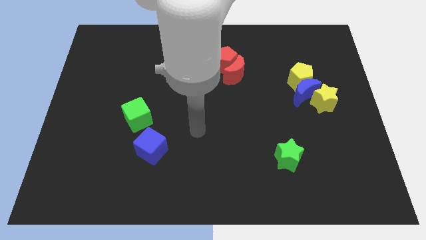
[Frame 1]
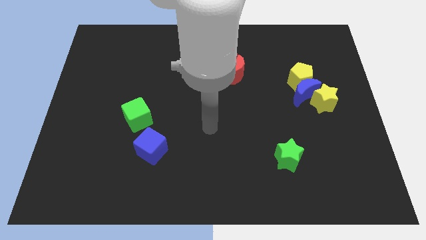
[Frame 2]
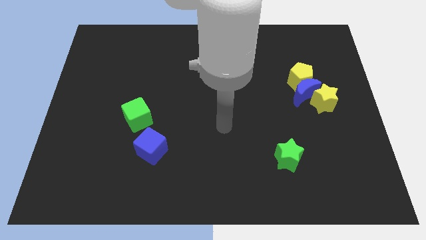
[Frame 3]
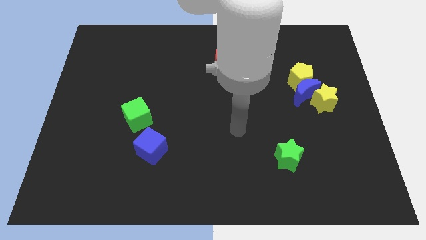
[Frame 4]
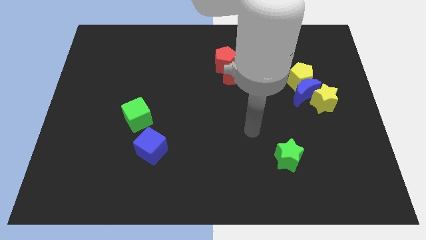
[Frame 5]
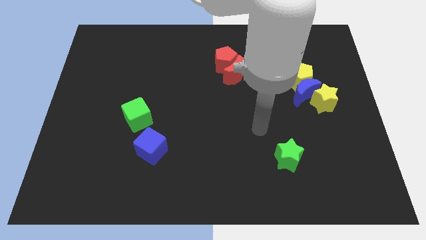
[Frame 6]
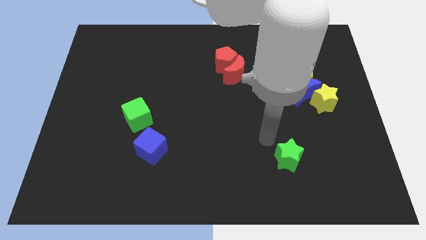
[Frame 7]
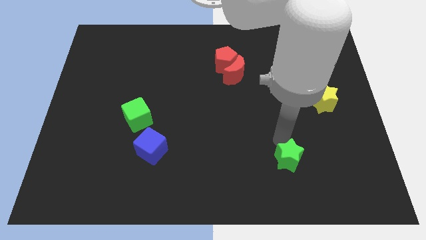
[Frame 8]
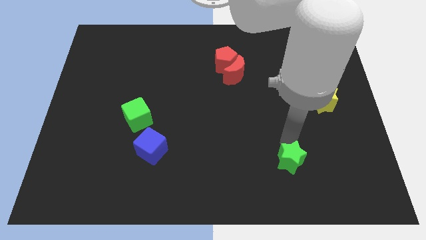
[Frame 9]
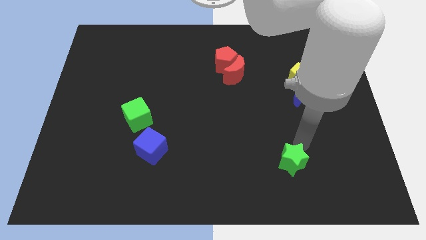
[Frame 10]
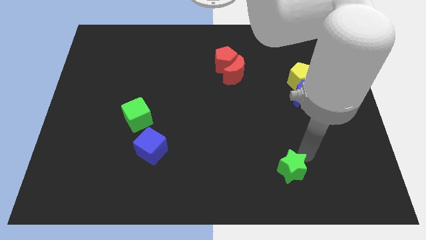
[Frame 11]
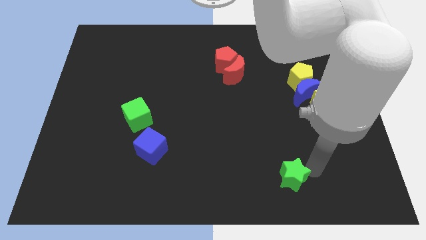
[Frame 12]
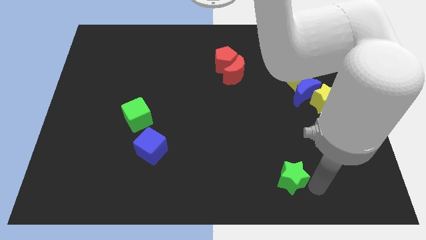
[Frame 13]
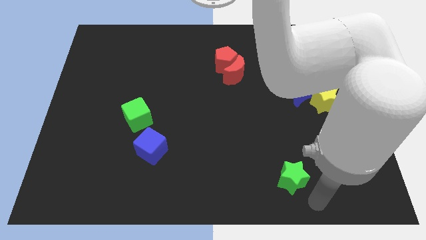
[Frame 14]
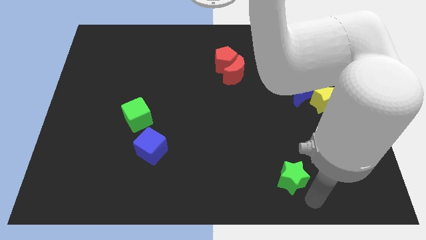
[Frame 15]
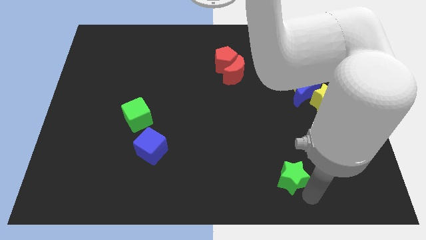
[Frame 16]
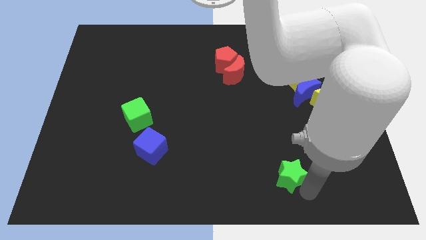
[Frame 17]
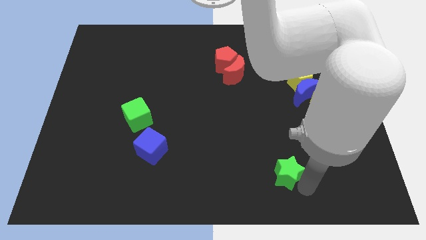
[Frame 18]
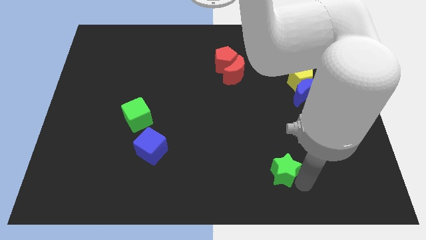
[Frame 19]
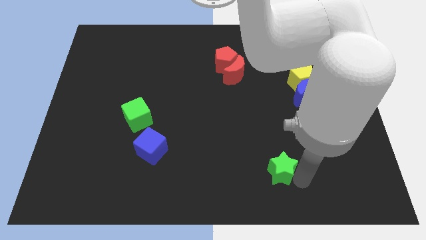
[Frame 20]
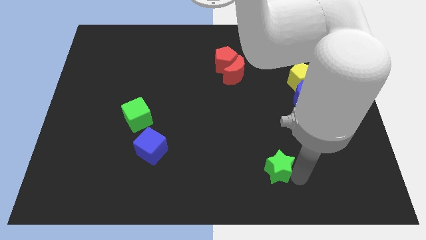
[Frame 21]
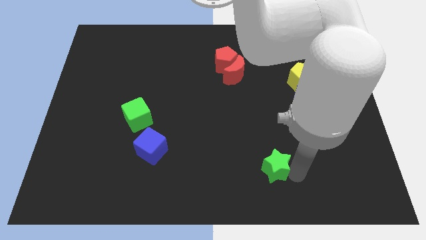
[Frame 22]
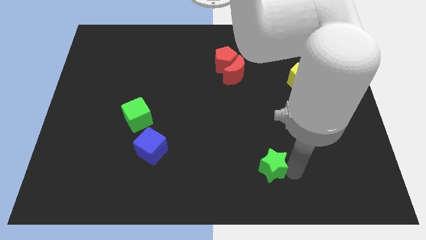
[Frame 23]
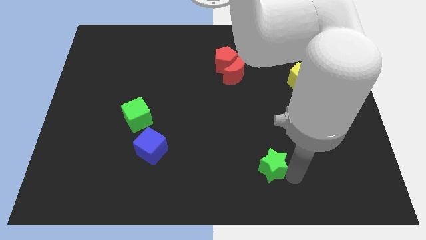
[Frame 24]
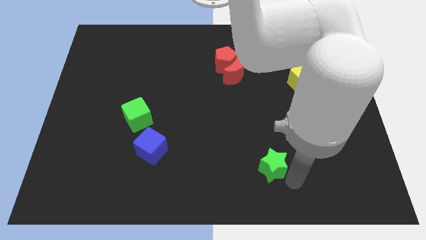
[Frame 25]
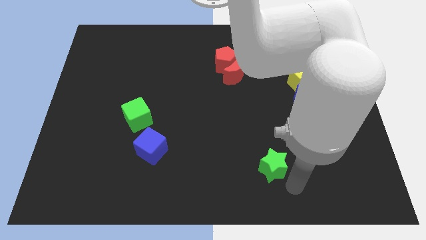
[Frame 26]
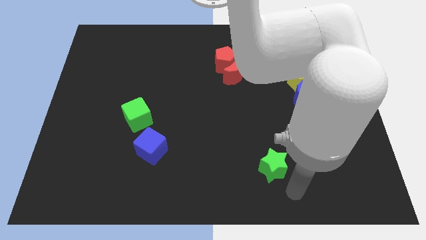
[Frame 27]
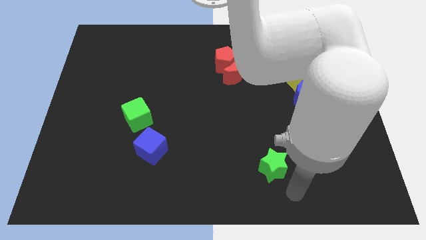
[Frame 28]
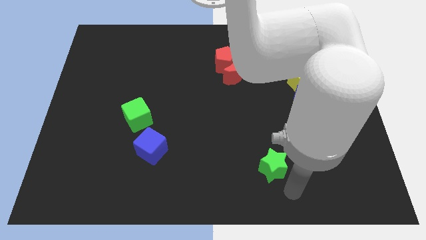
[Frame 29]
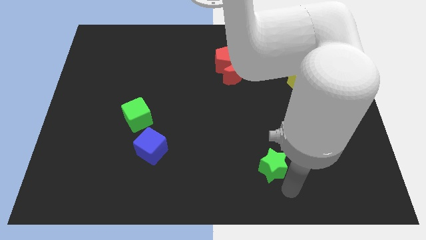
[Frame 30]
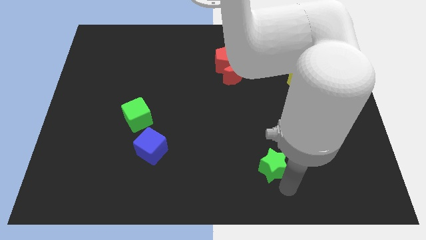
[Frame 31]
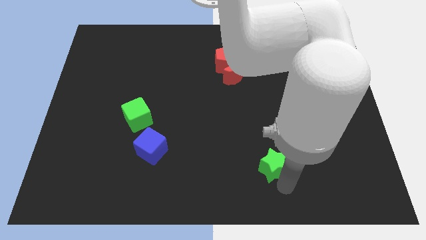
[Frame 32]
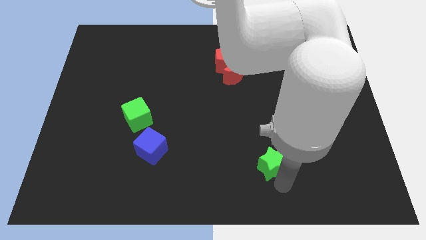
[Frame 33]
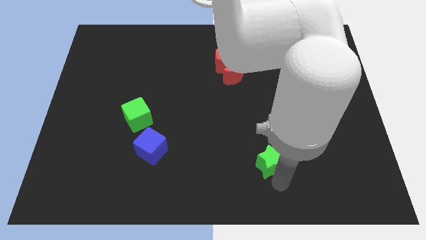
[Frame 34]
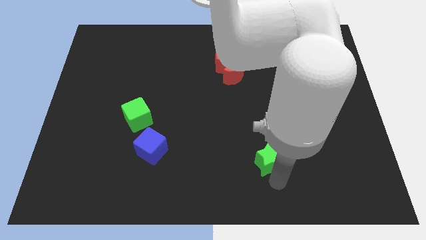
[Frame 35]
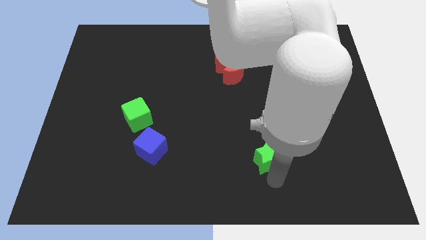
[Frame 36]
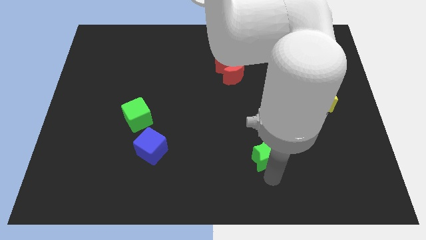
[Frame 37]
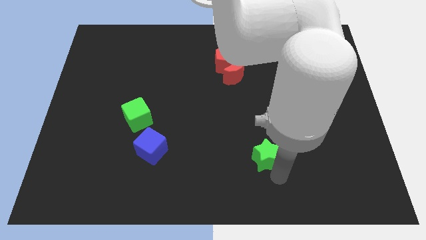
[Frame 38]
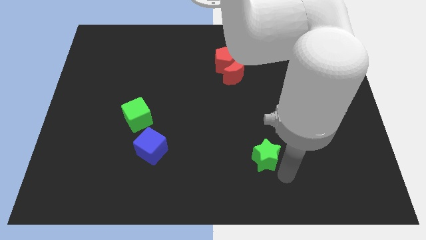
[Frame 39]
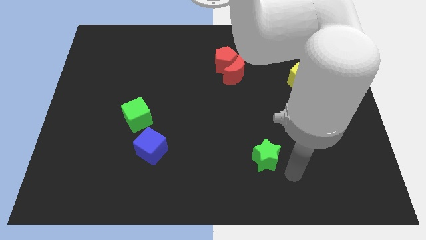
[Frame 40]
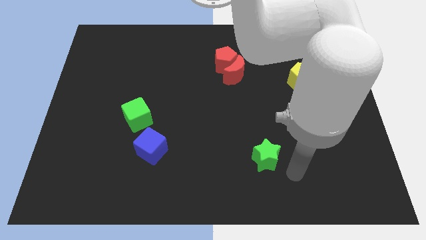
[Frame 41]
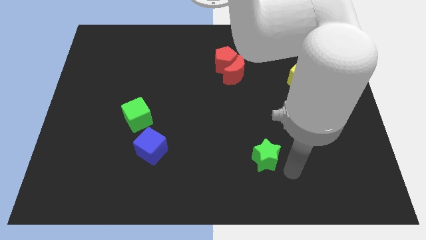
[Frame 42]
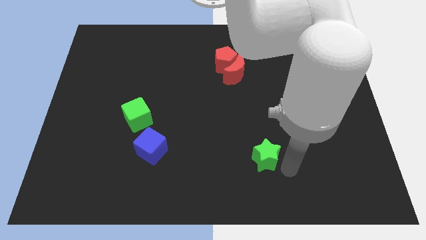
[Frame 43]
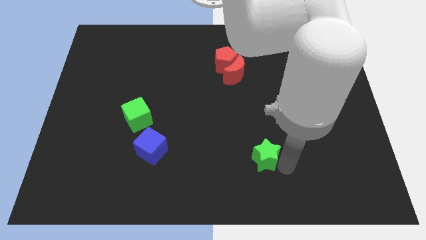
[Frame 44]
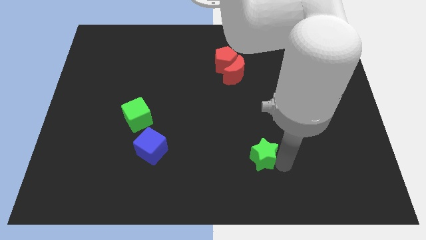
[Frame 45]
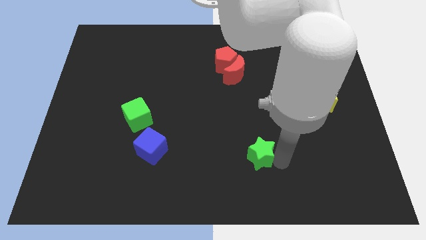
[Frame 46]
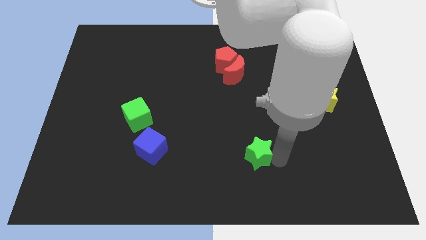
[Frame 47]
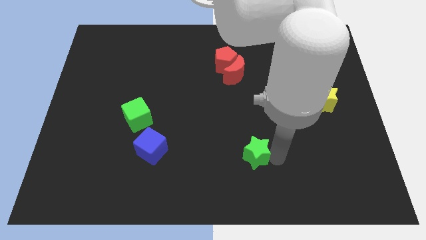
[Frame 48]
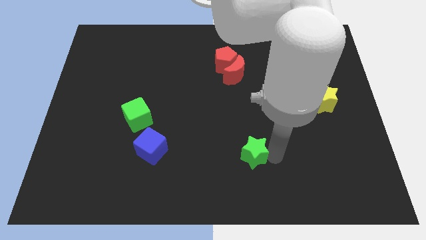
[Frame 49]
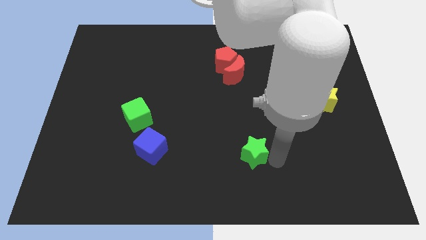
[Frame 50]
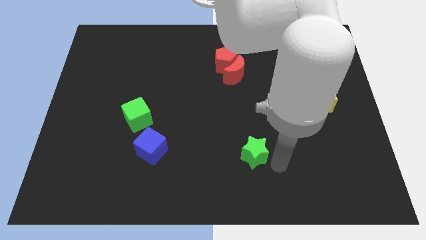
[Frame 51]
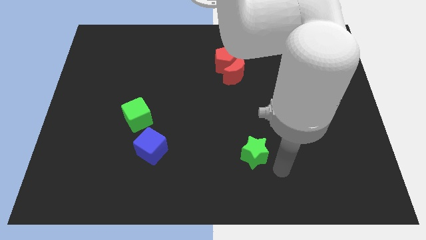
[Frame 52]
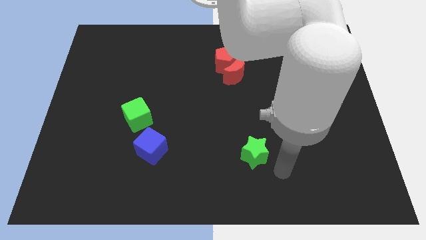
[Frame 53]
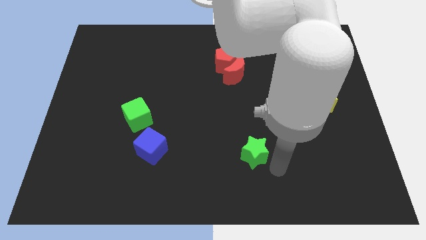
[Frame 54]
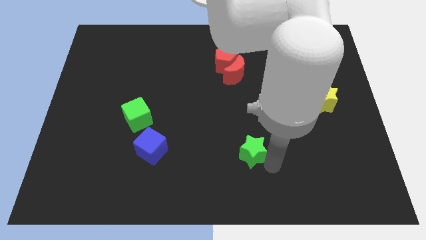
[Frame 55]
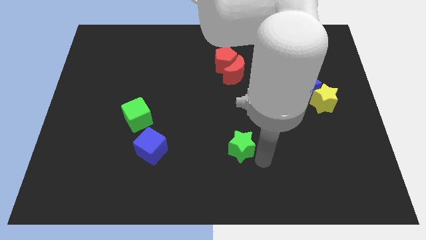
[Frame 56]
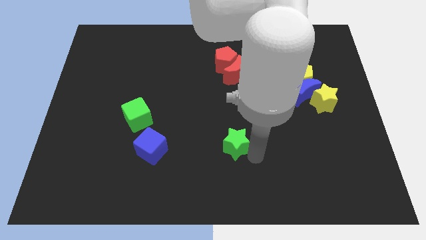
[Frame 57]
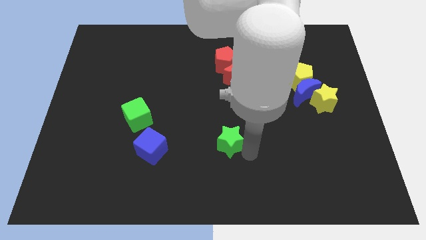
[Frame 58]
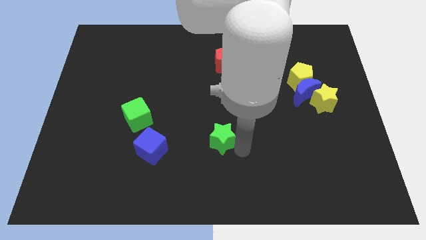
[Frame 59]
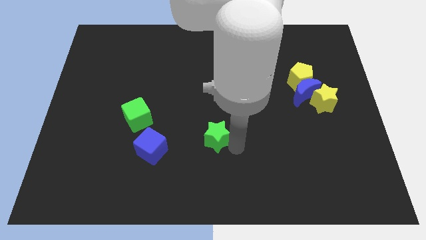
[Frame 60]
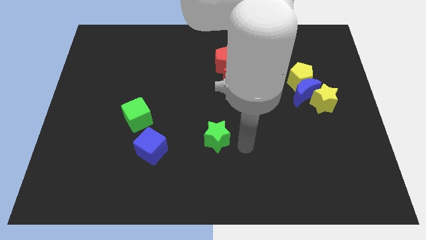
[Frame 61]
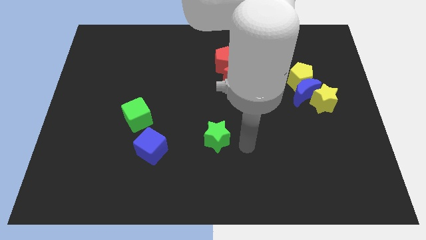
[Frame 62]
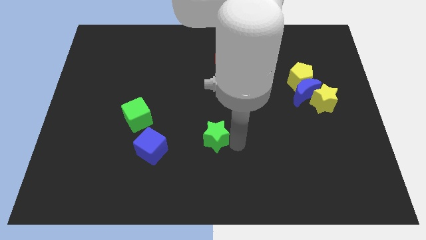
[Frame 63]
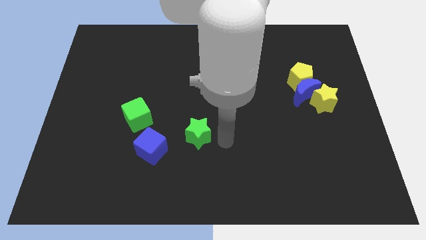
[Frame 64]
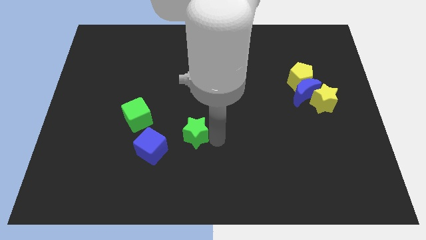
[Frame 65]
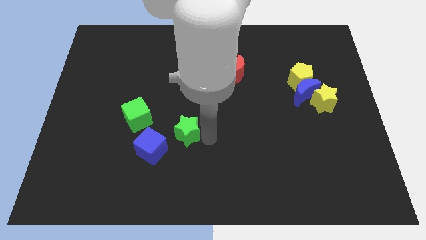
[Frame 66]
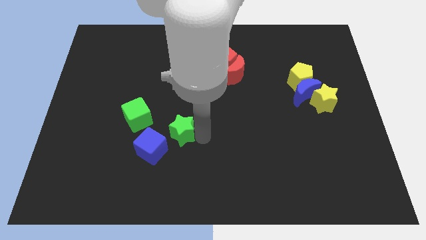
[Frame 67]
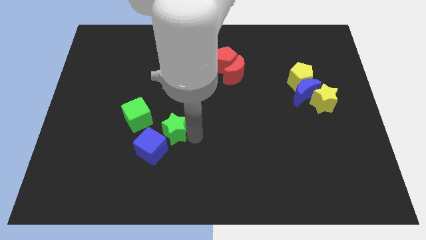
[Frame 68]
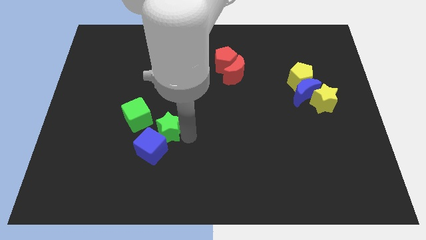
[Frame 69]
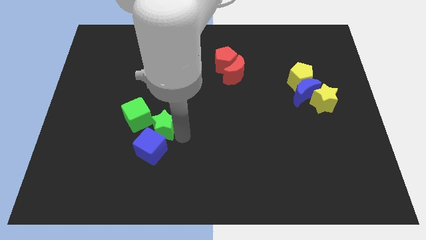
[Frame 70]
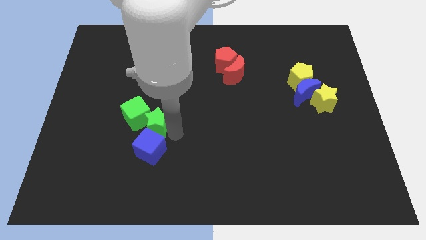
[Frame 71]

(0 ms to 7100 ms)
push the green star to the green cube
